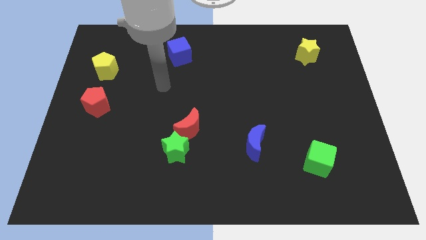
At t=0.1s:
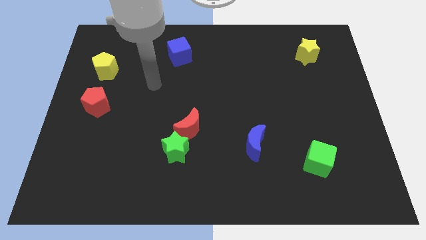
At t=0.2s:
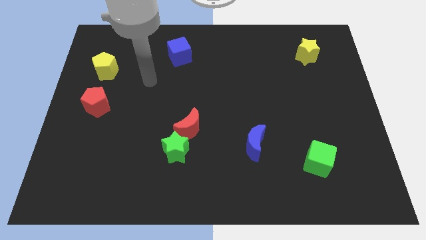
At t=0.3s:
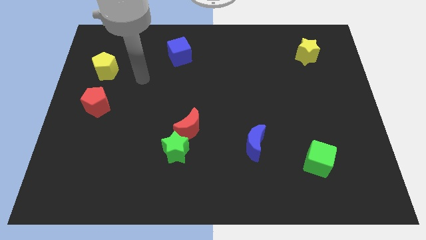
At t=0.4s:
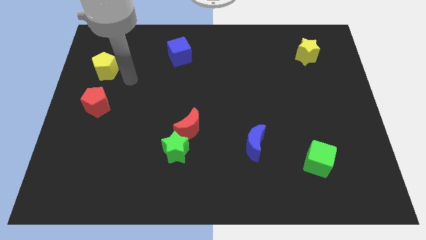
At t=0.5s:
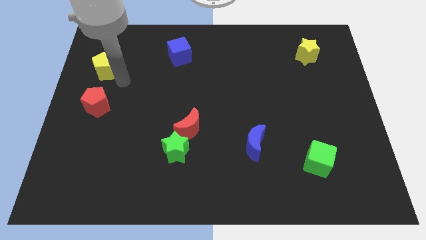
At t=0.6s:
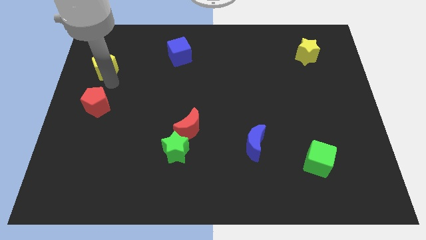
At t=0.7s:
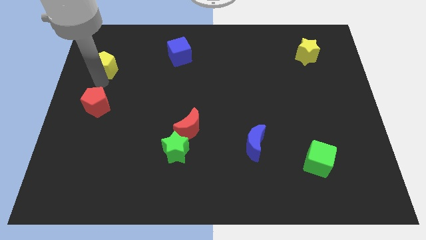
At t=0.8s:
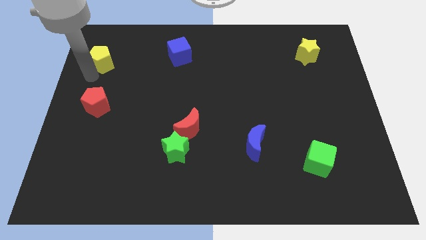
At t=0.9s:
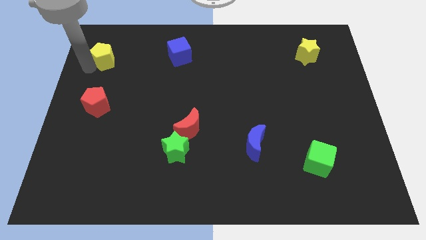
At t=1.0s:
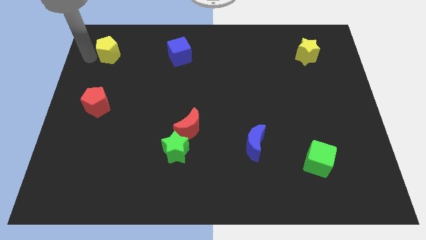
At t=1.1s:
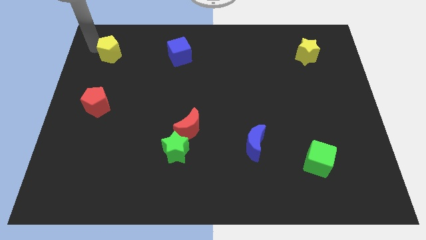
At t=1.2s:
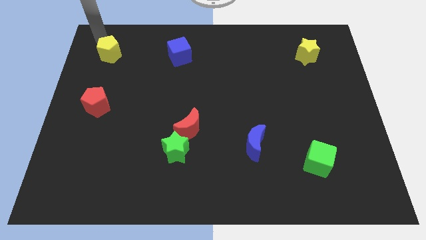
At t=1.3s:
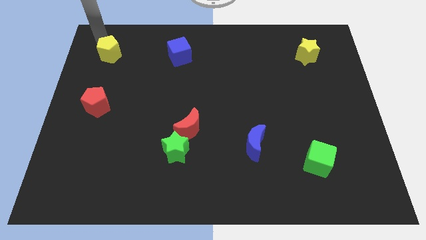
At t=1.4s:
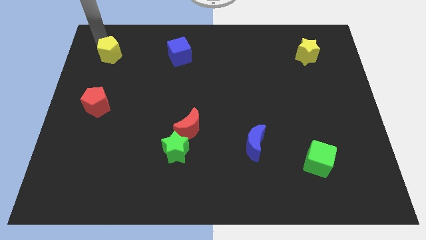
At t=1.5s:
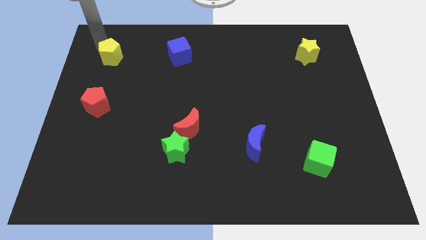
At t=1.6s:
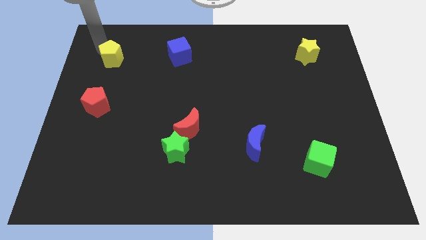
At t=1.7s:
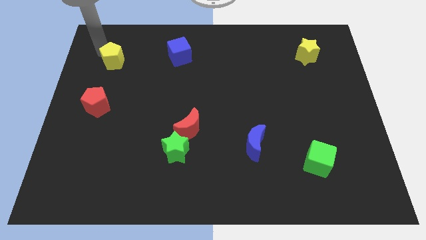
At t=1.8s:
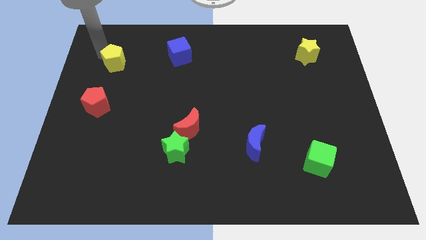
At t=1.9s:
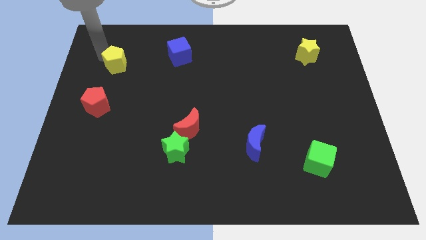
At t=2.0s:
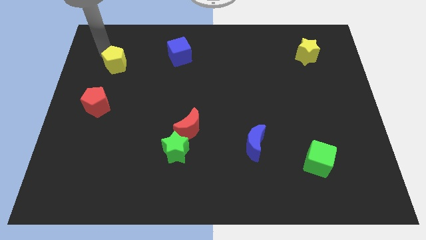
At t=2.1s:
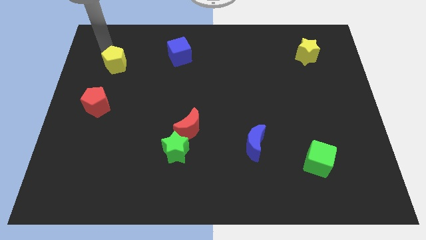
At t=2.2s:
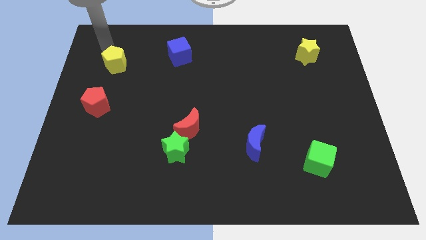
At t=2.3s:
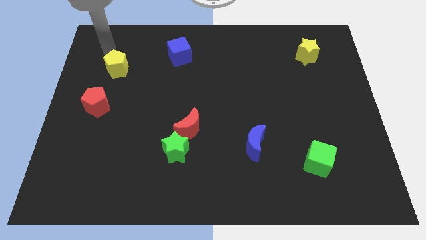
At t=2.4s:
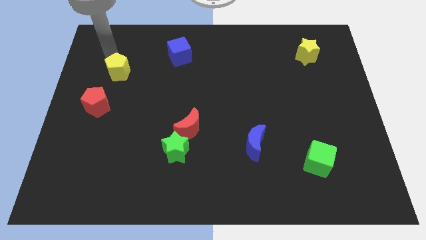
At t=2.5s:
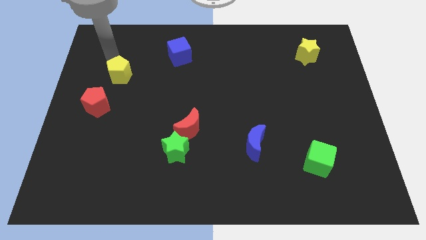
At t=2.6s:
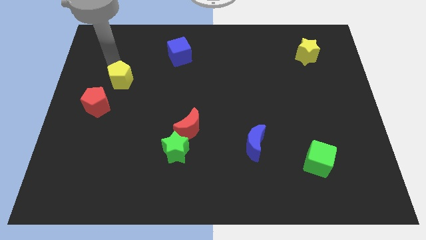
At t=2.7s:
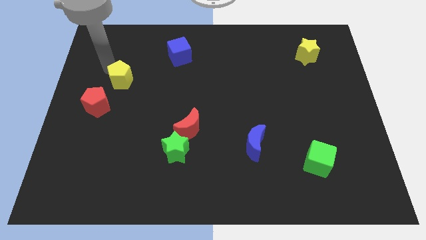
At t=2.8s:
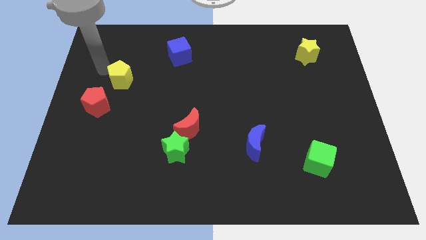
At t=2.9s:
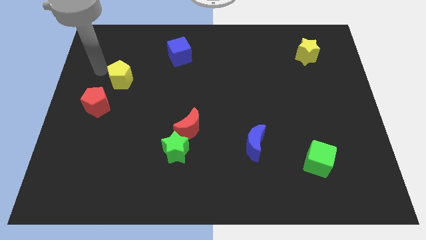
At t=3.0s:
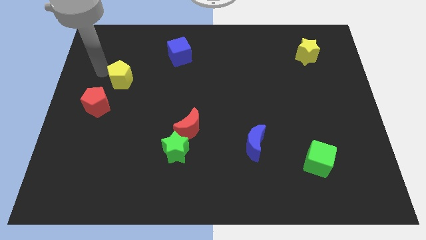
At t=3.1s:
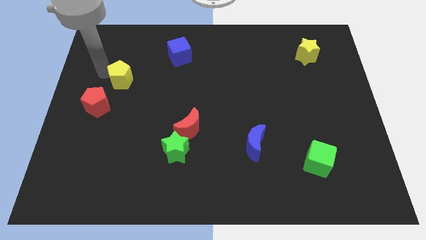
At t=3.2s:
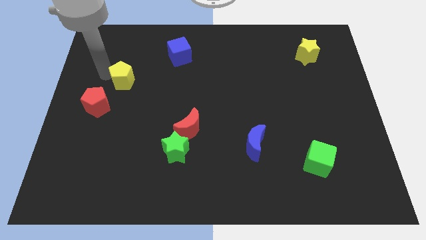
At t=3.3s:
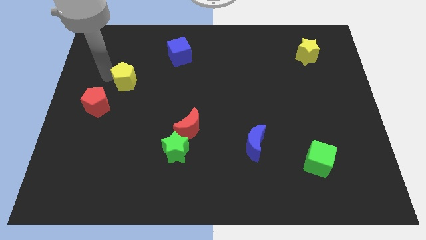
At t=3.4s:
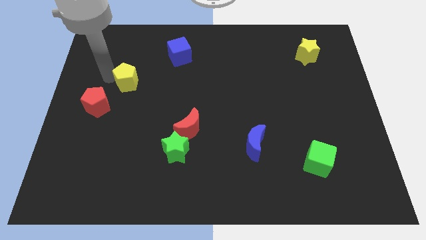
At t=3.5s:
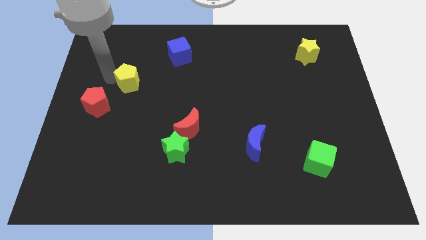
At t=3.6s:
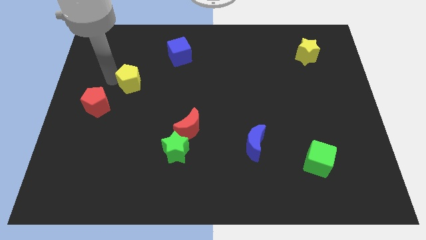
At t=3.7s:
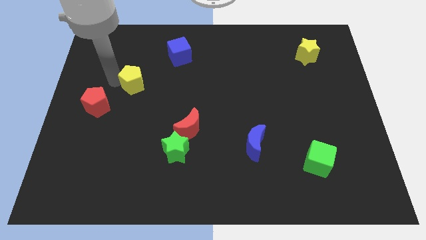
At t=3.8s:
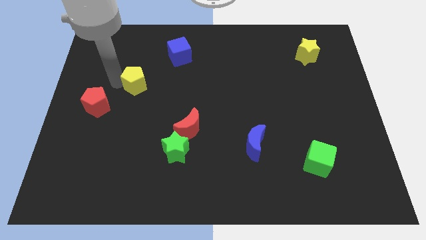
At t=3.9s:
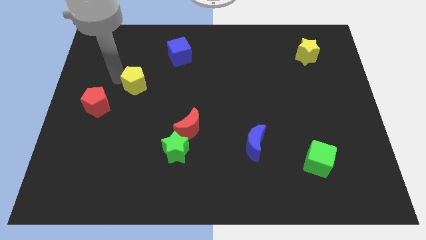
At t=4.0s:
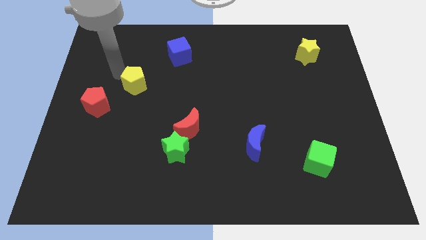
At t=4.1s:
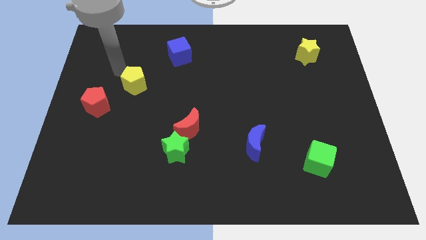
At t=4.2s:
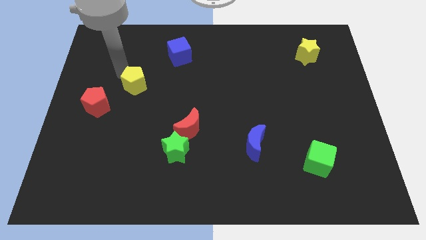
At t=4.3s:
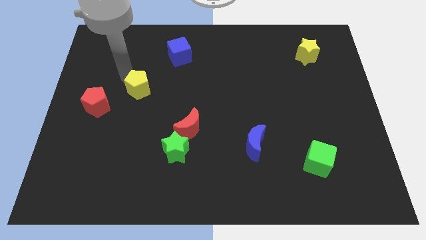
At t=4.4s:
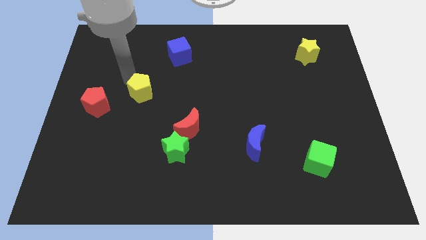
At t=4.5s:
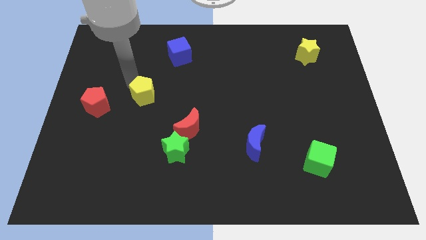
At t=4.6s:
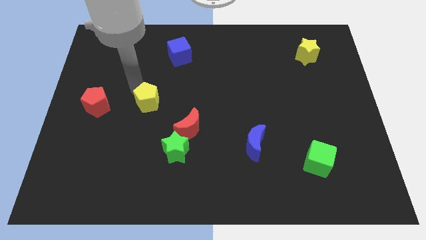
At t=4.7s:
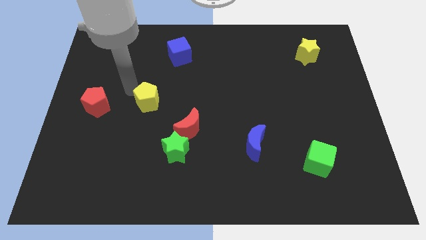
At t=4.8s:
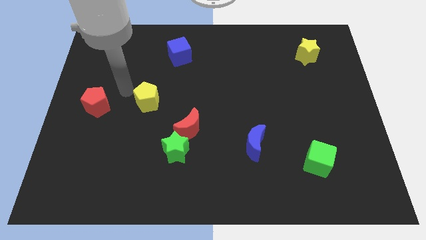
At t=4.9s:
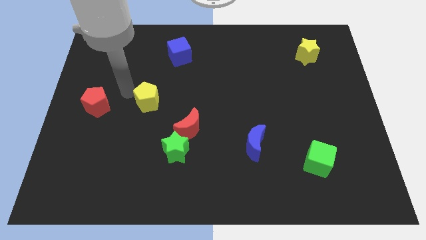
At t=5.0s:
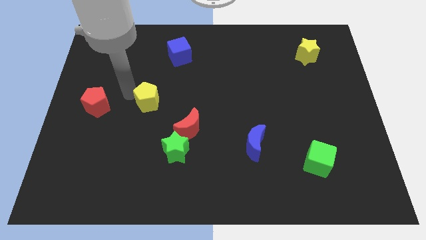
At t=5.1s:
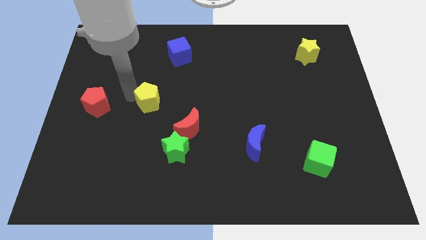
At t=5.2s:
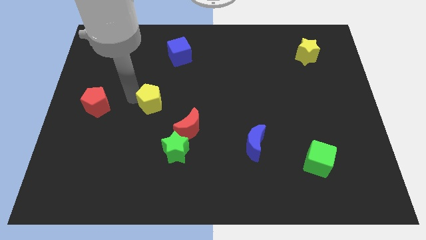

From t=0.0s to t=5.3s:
slide the yellow pentagon to the top left of the red moon

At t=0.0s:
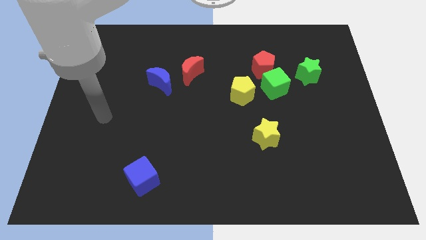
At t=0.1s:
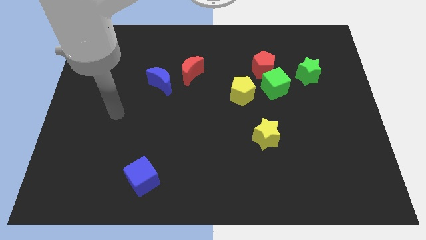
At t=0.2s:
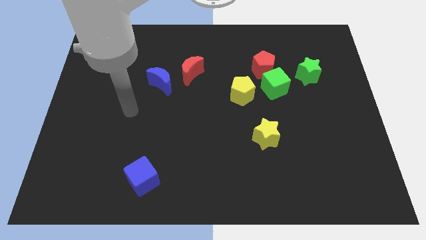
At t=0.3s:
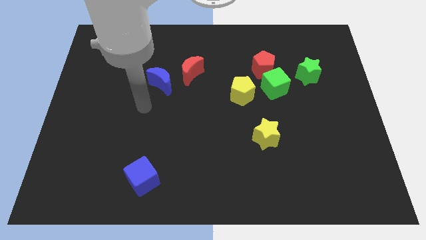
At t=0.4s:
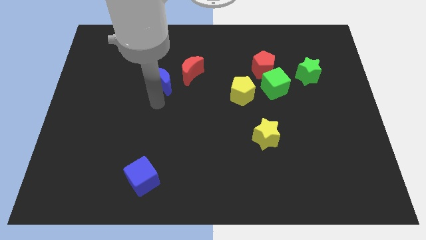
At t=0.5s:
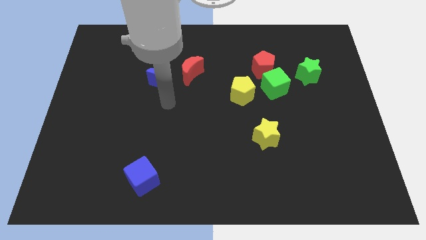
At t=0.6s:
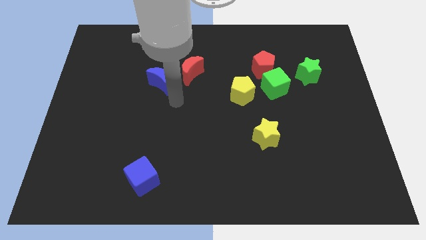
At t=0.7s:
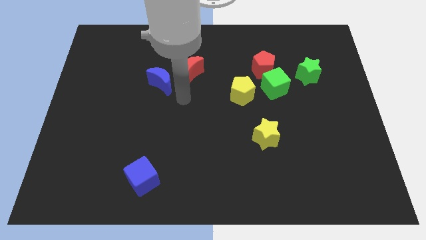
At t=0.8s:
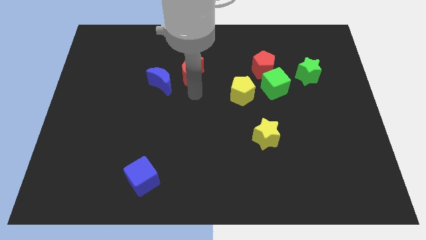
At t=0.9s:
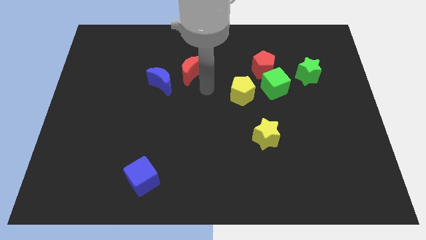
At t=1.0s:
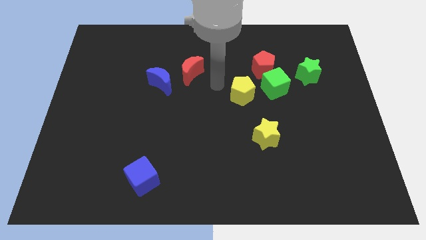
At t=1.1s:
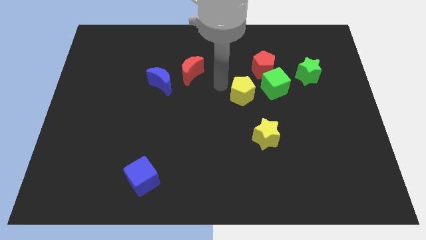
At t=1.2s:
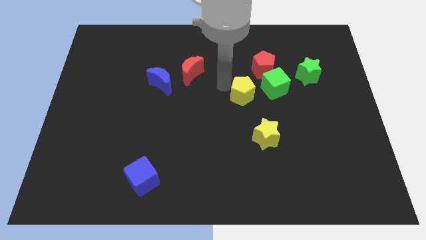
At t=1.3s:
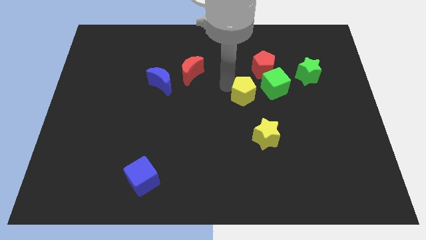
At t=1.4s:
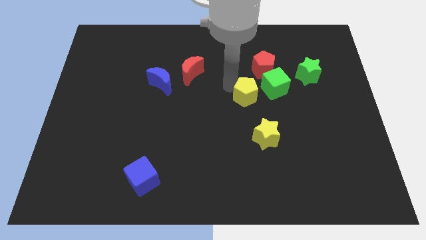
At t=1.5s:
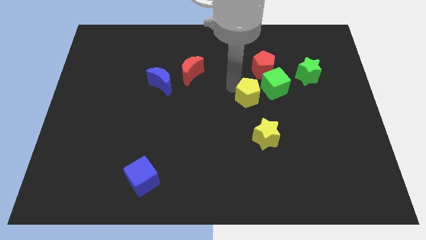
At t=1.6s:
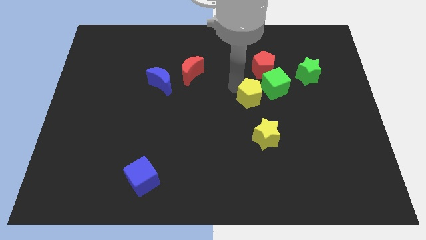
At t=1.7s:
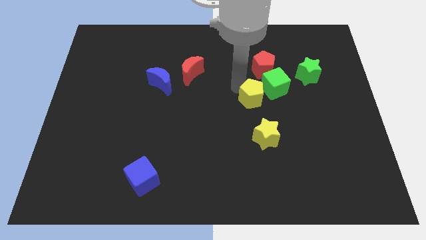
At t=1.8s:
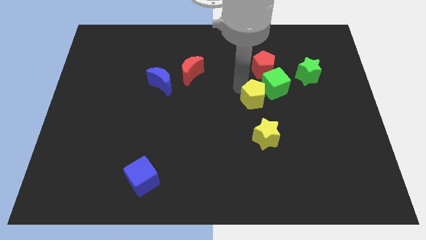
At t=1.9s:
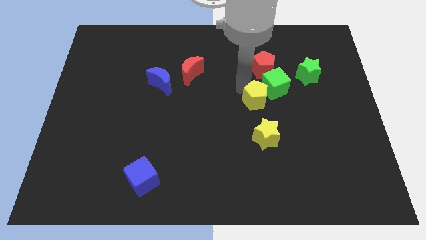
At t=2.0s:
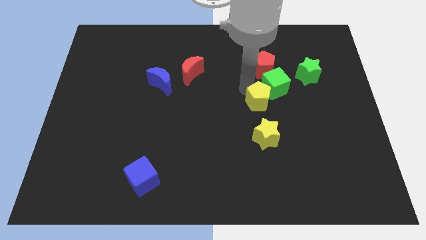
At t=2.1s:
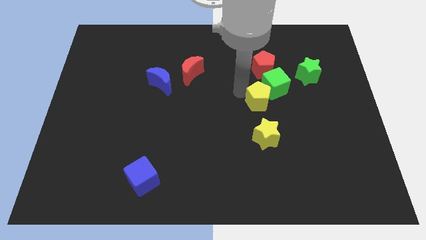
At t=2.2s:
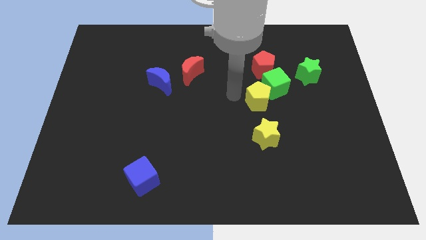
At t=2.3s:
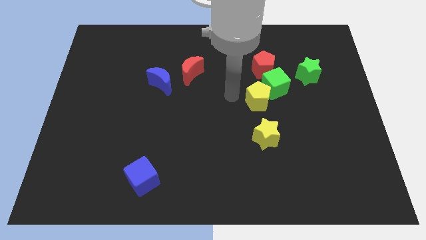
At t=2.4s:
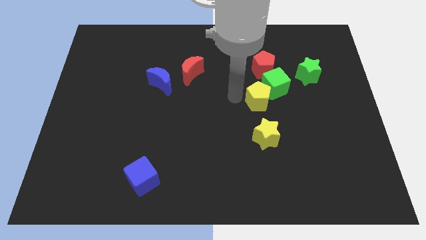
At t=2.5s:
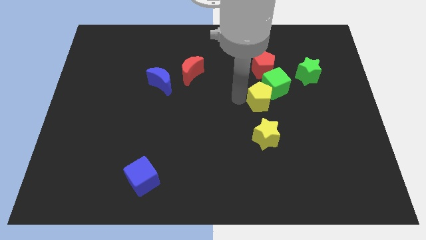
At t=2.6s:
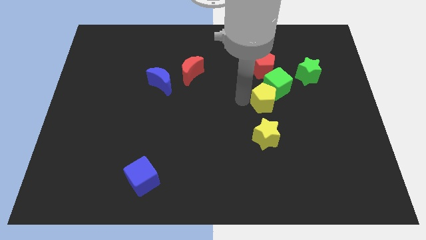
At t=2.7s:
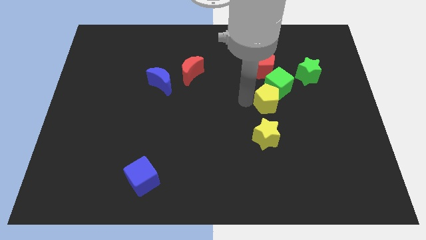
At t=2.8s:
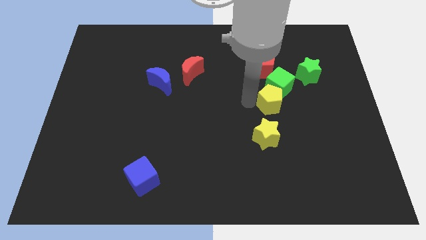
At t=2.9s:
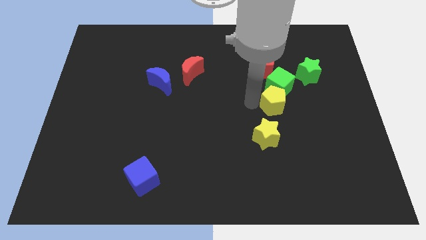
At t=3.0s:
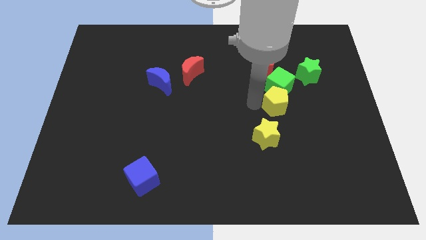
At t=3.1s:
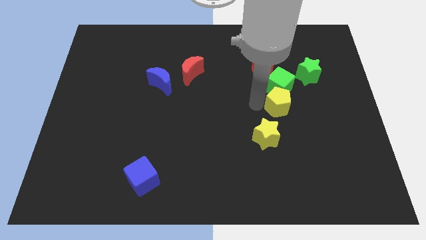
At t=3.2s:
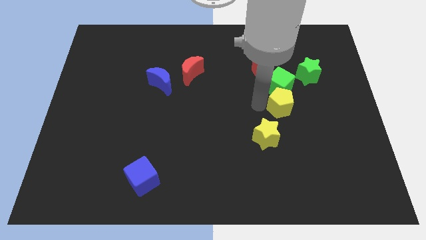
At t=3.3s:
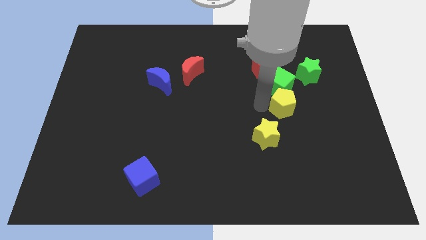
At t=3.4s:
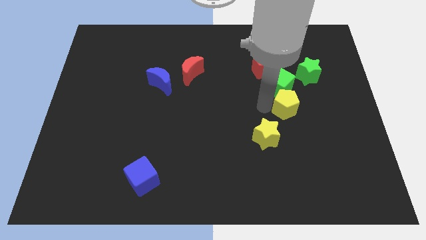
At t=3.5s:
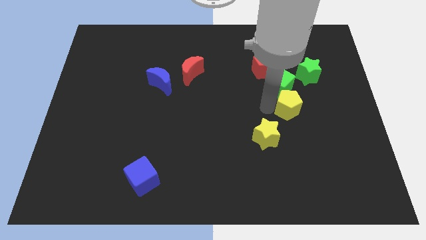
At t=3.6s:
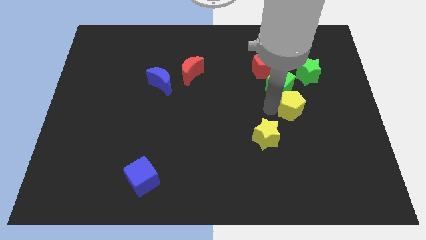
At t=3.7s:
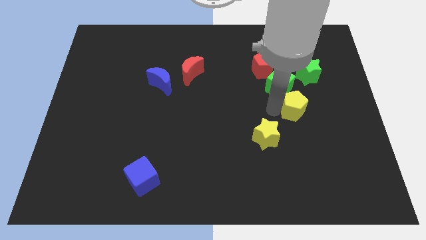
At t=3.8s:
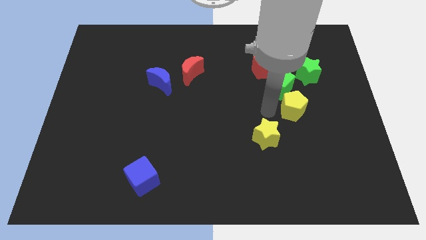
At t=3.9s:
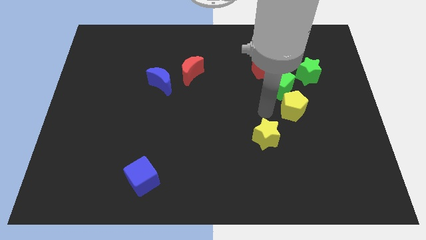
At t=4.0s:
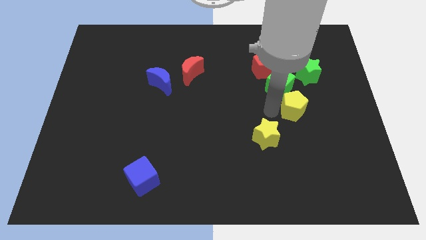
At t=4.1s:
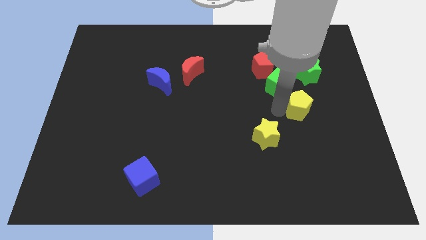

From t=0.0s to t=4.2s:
move the yellow pentagon to the bottom of the green star
